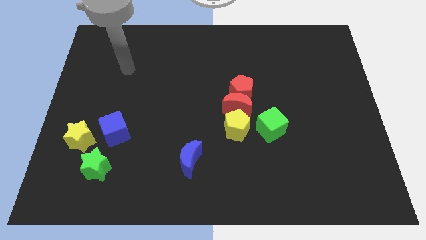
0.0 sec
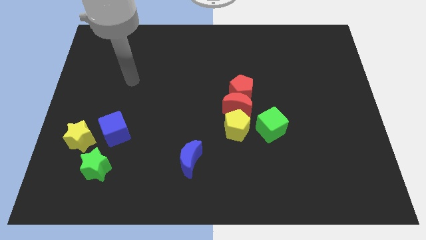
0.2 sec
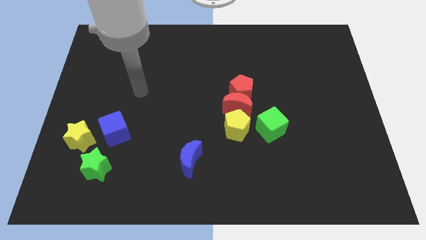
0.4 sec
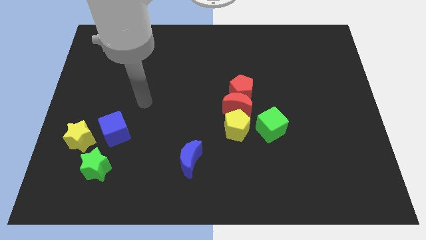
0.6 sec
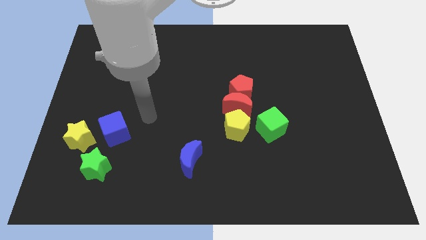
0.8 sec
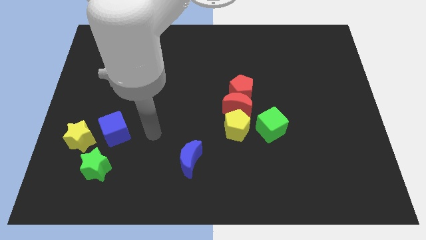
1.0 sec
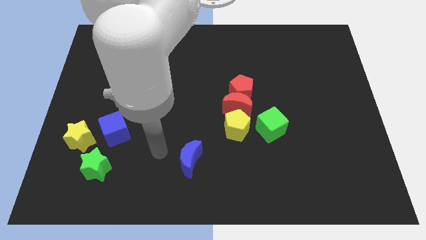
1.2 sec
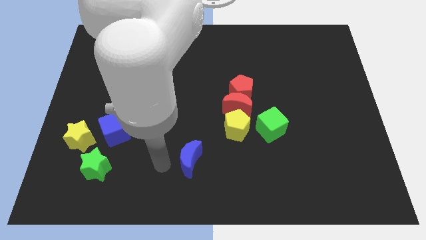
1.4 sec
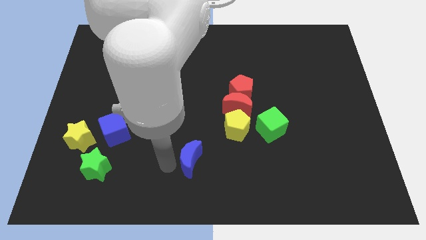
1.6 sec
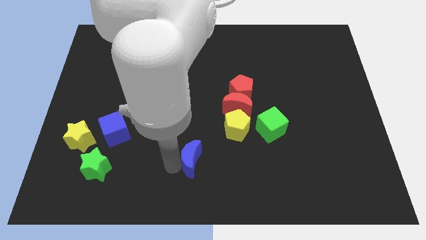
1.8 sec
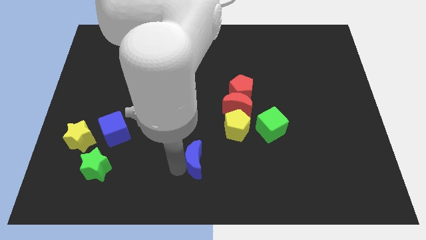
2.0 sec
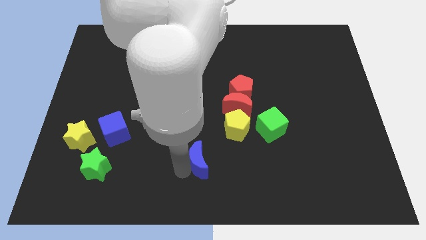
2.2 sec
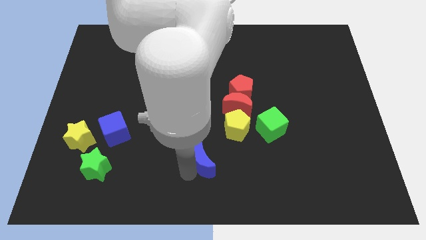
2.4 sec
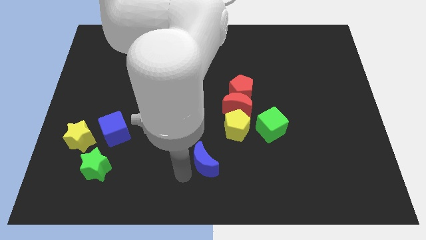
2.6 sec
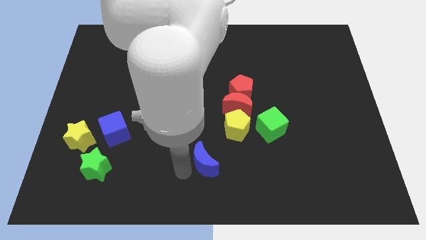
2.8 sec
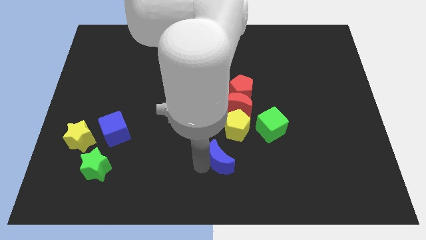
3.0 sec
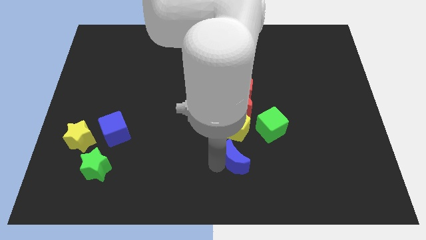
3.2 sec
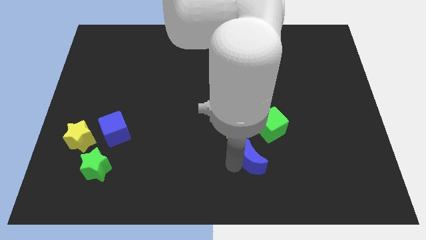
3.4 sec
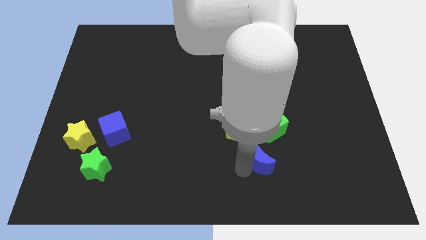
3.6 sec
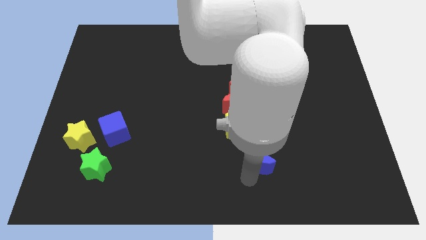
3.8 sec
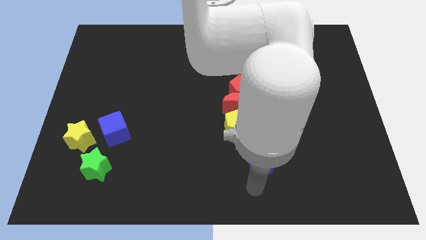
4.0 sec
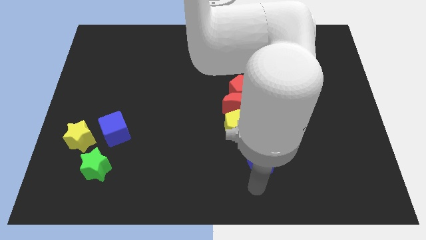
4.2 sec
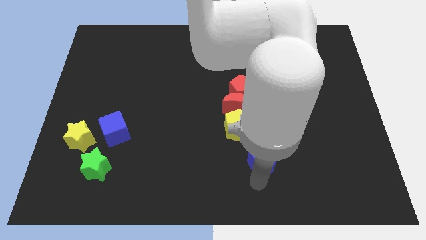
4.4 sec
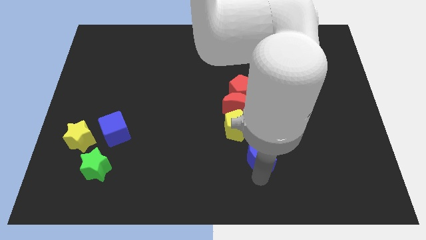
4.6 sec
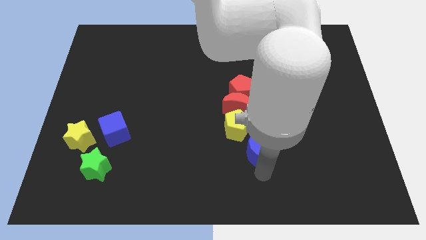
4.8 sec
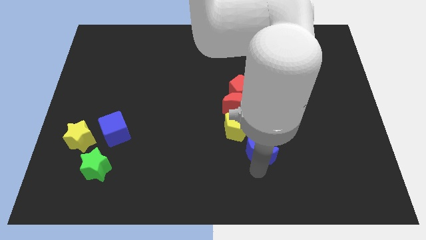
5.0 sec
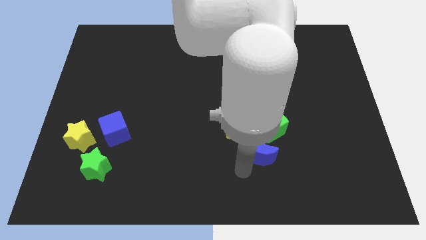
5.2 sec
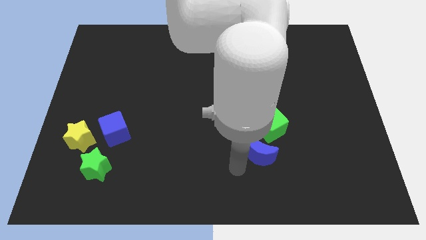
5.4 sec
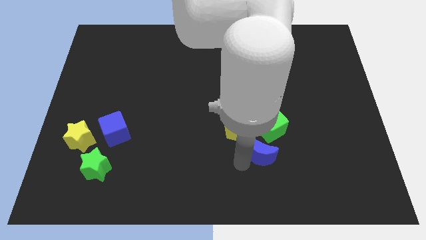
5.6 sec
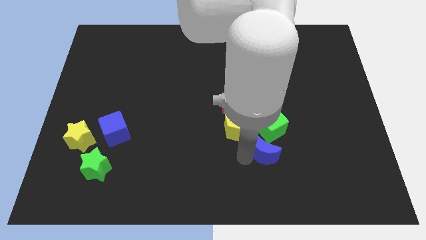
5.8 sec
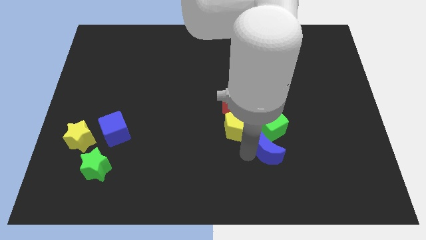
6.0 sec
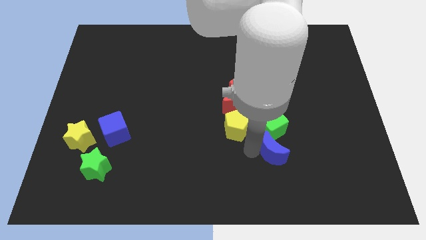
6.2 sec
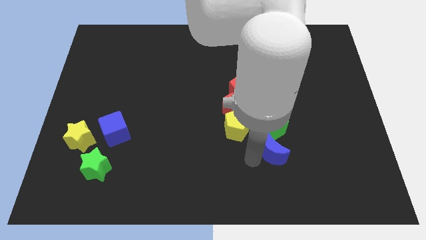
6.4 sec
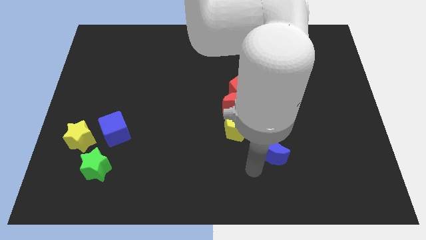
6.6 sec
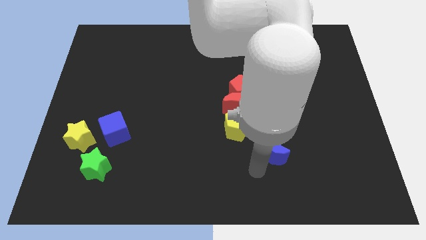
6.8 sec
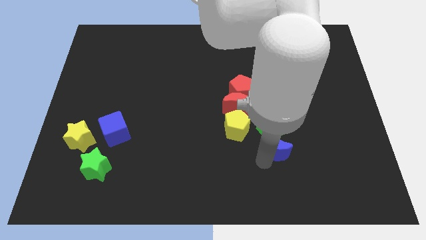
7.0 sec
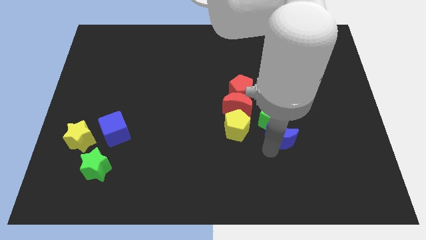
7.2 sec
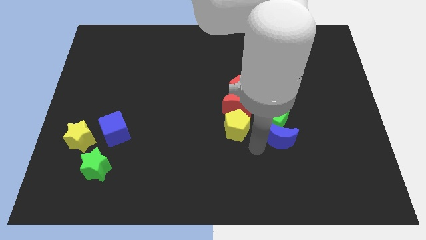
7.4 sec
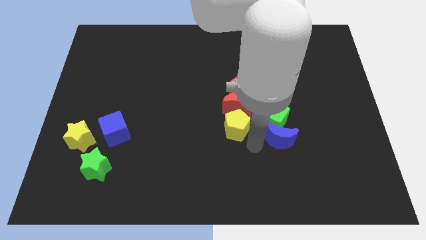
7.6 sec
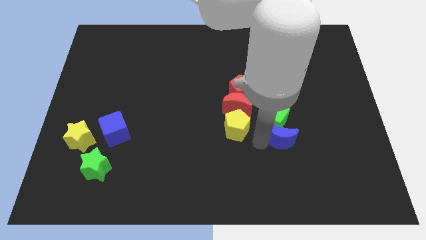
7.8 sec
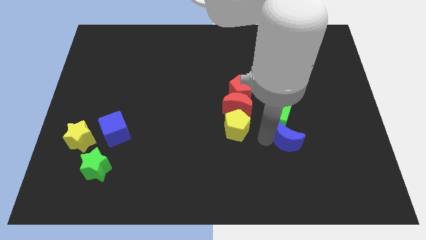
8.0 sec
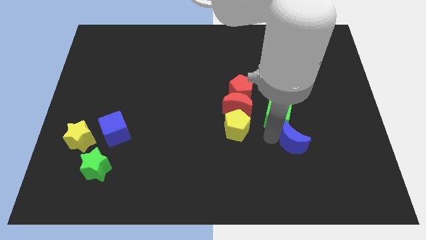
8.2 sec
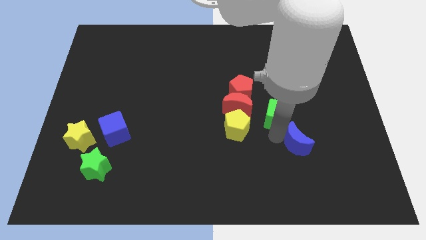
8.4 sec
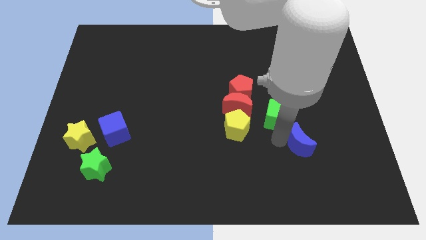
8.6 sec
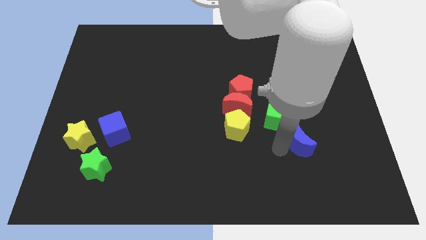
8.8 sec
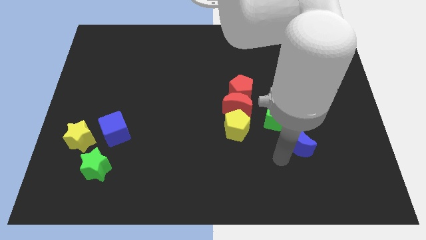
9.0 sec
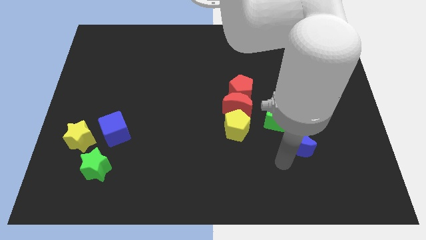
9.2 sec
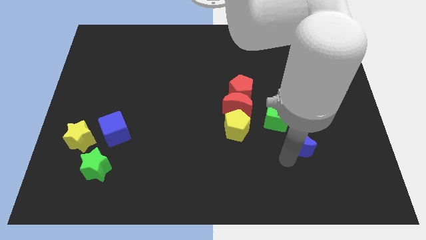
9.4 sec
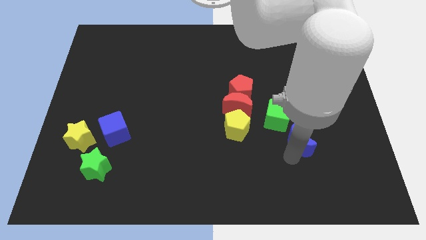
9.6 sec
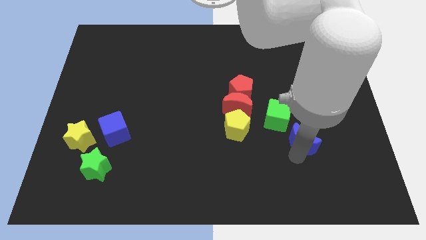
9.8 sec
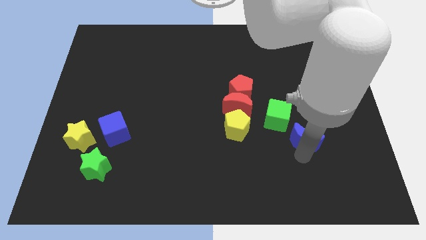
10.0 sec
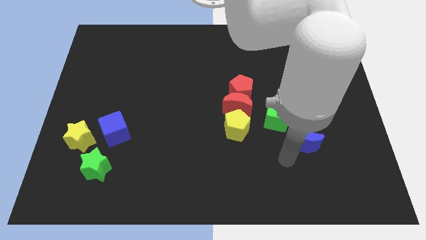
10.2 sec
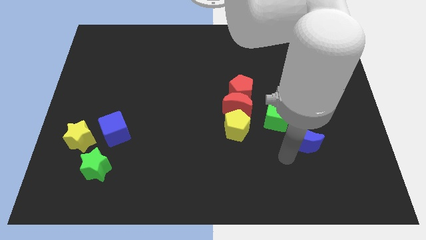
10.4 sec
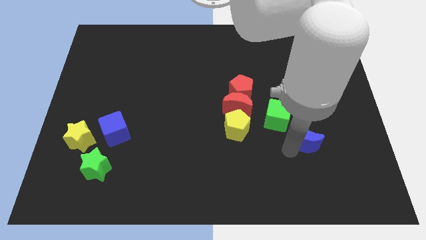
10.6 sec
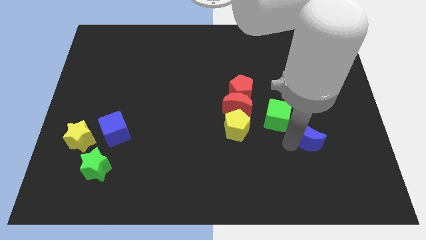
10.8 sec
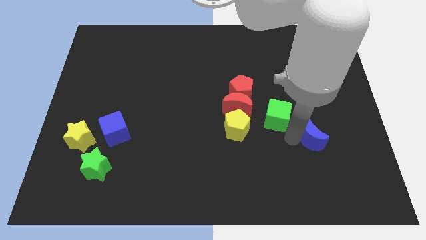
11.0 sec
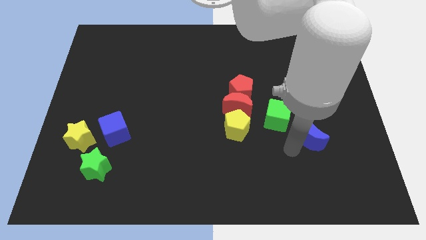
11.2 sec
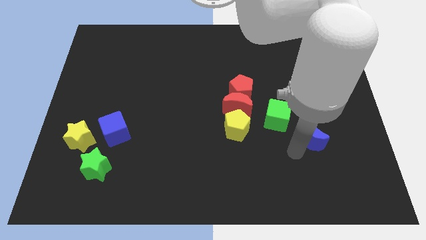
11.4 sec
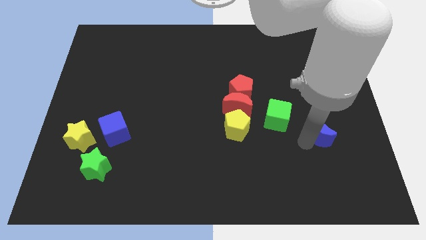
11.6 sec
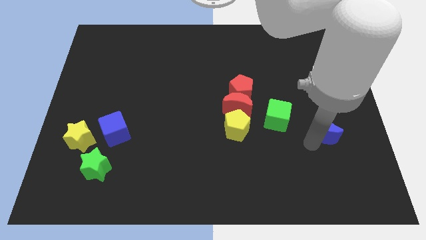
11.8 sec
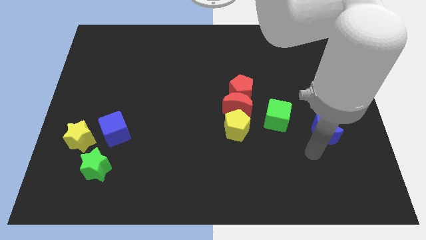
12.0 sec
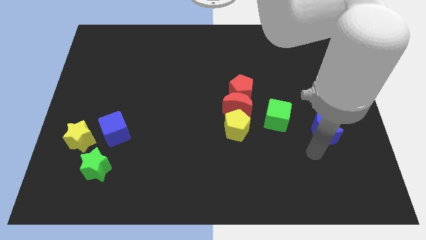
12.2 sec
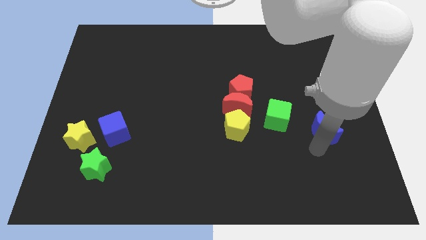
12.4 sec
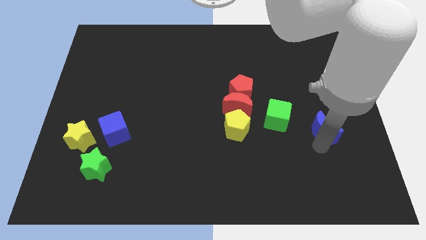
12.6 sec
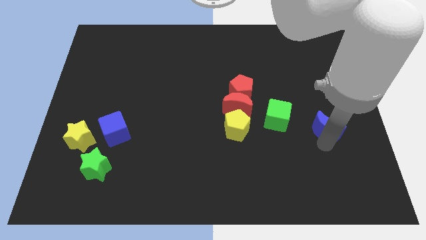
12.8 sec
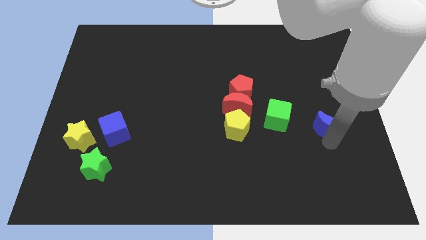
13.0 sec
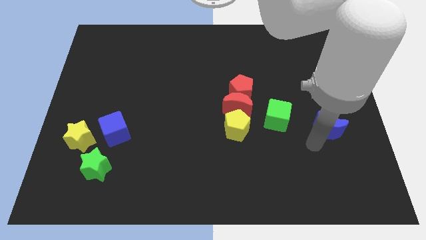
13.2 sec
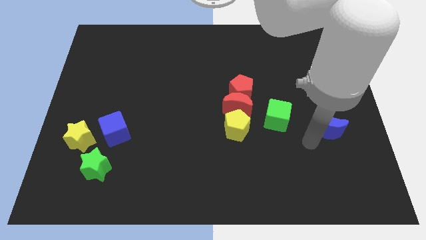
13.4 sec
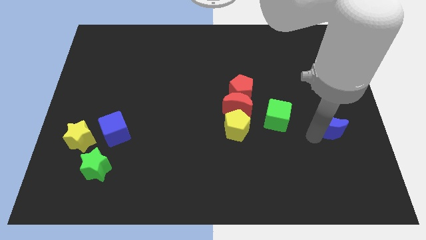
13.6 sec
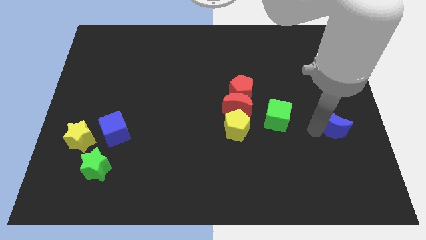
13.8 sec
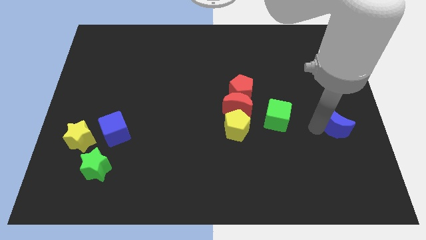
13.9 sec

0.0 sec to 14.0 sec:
move the blue moon to the right side of the board
